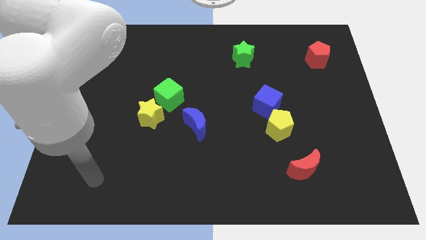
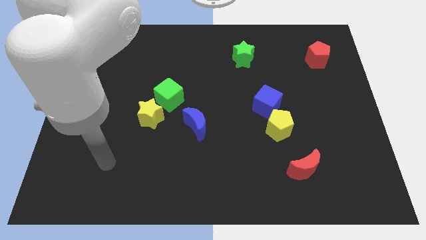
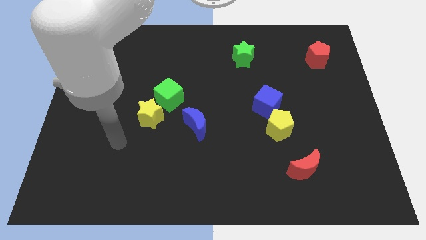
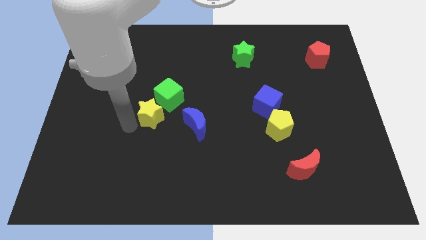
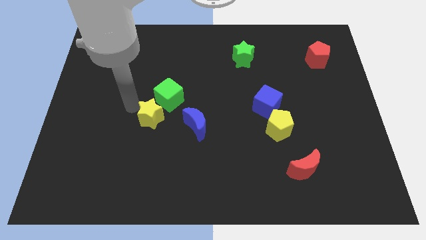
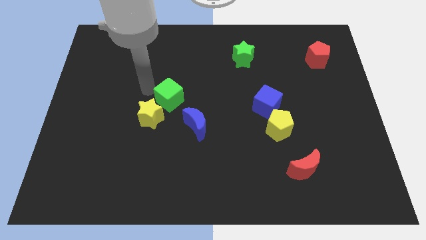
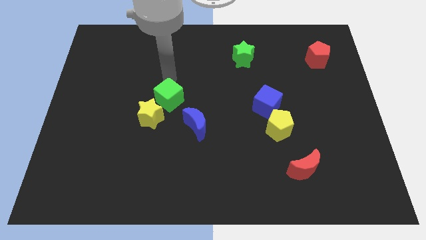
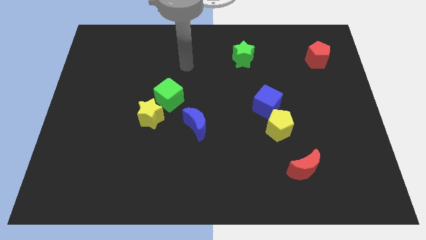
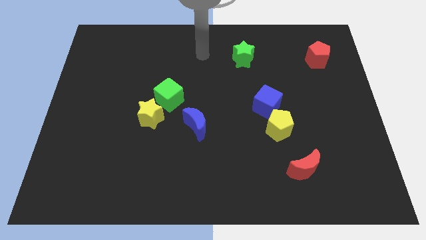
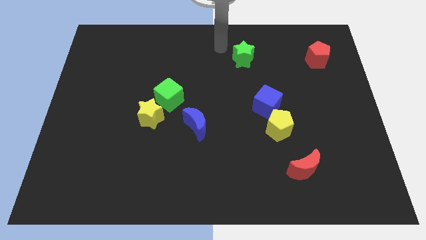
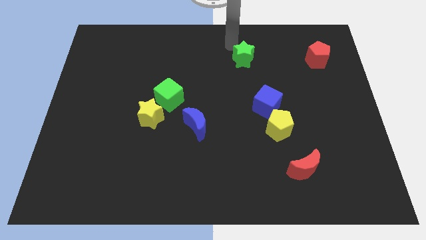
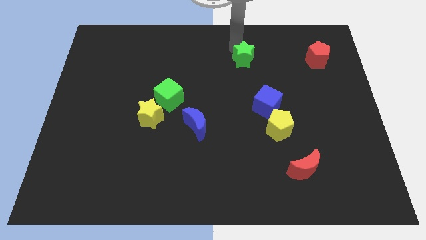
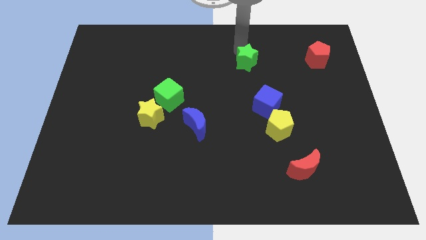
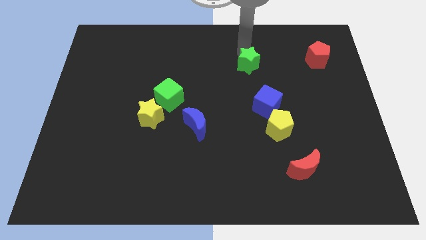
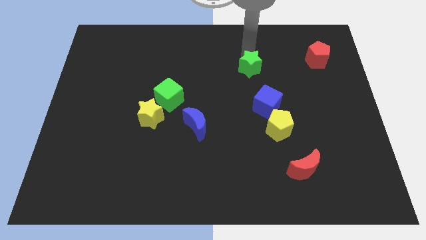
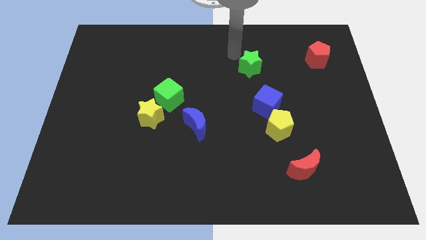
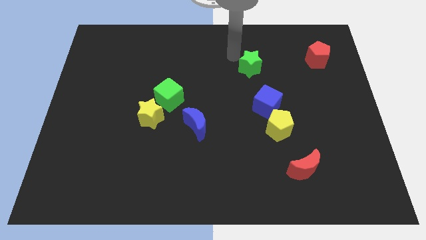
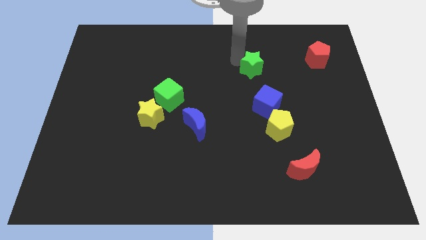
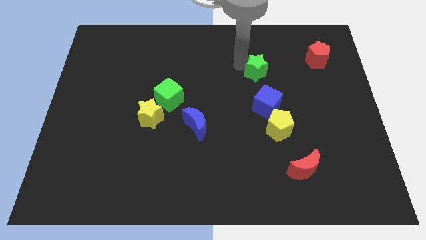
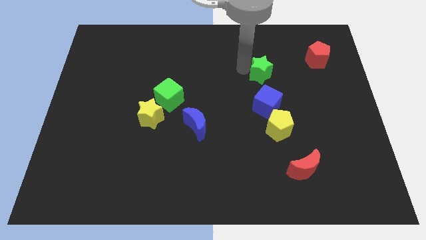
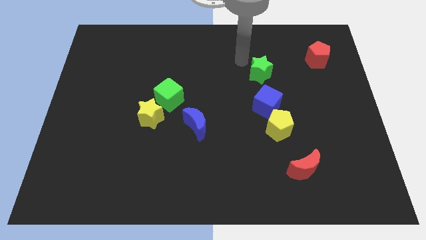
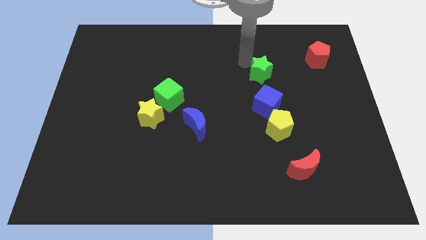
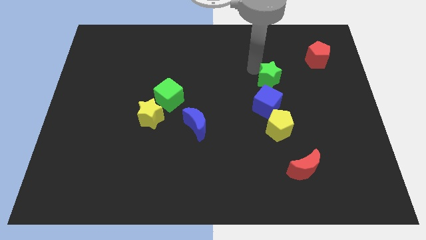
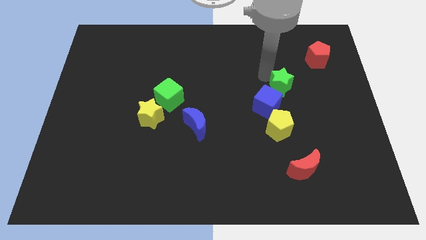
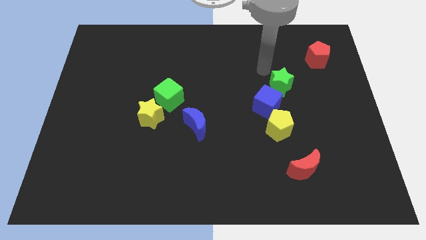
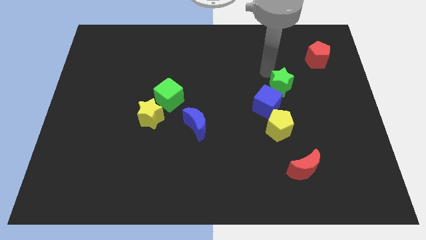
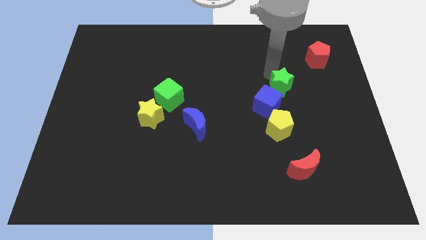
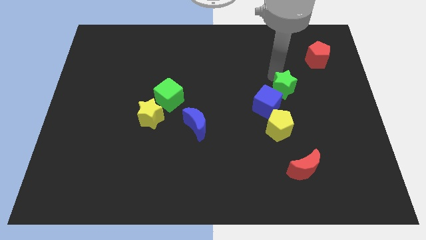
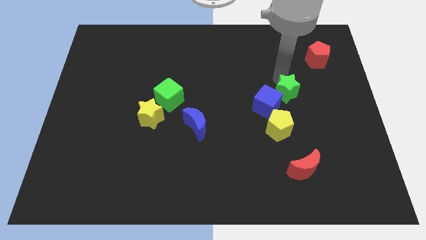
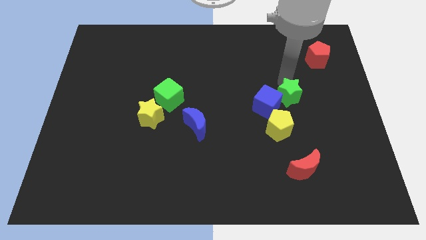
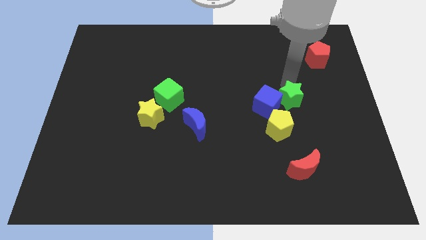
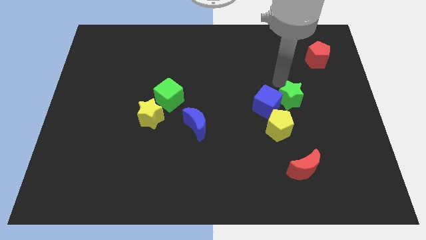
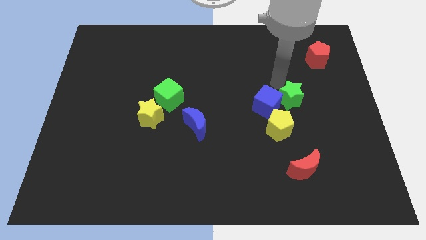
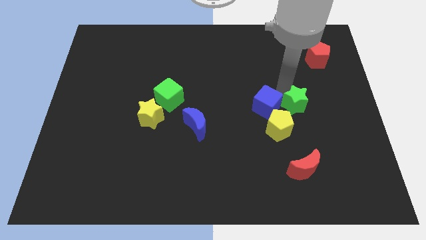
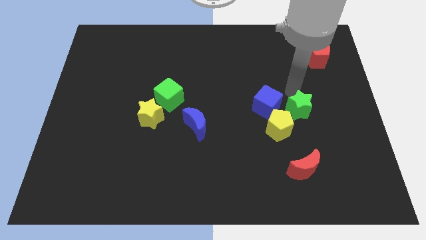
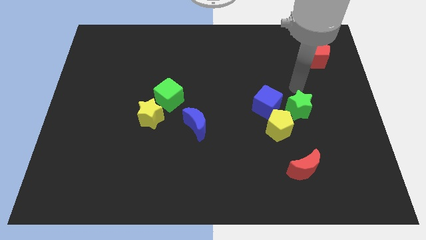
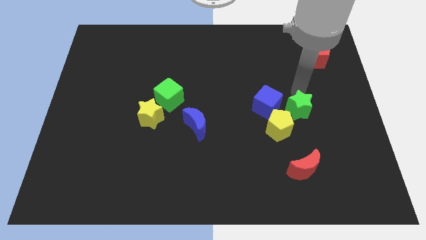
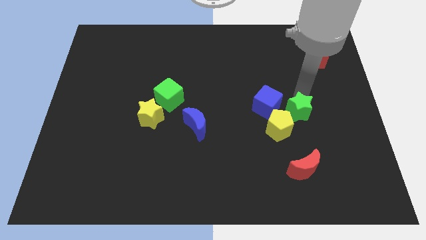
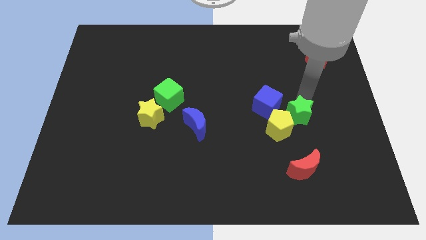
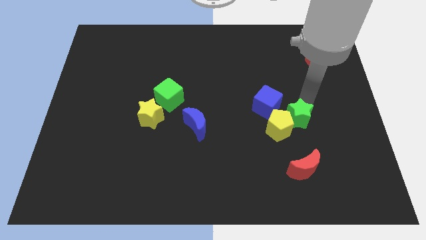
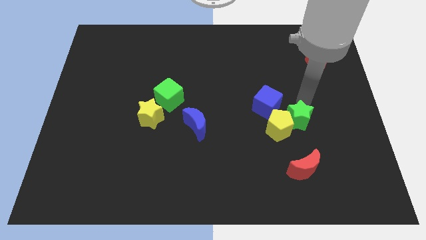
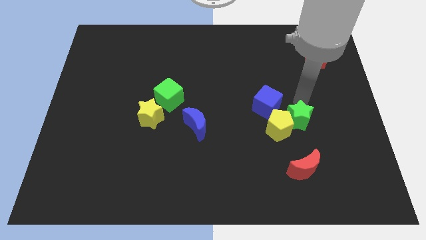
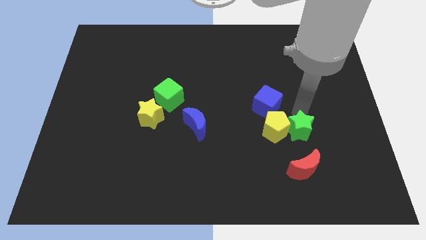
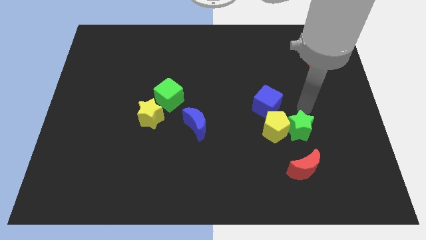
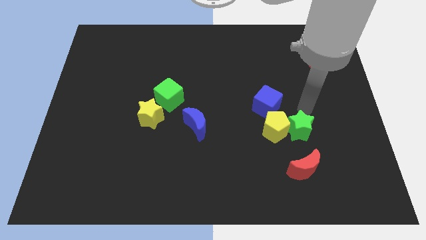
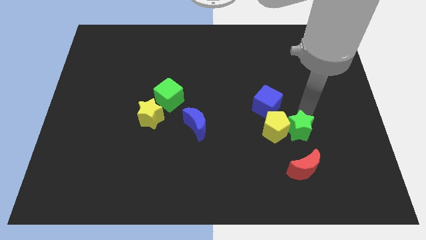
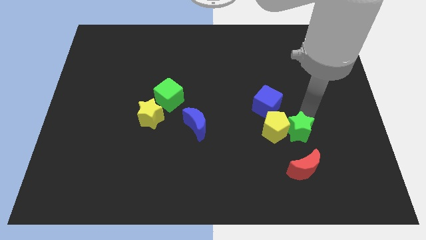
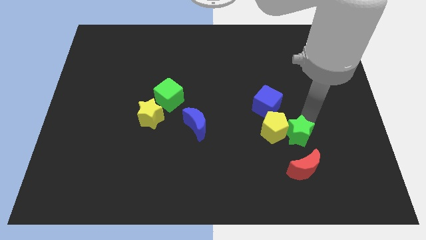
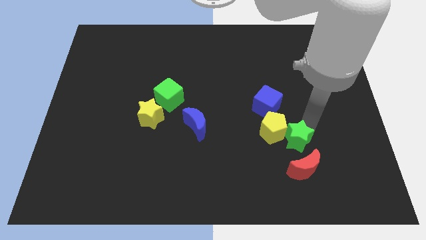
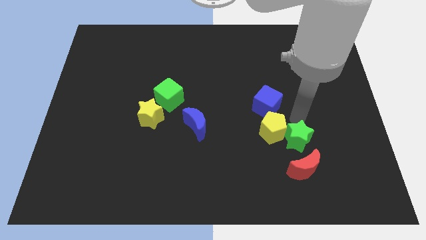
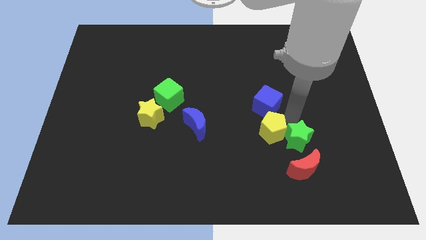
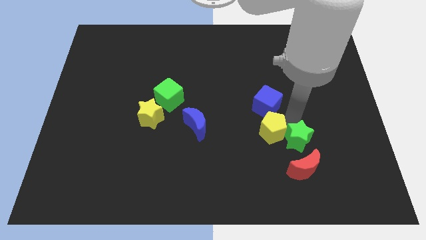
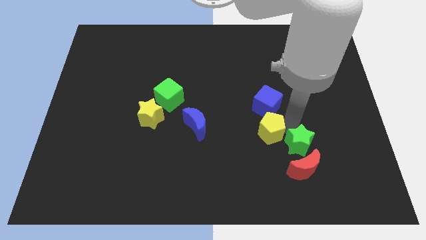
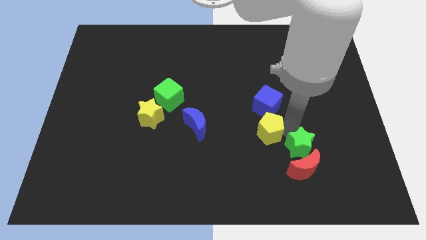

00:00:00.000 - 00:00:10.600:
put the green star to the red moon

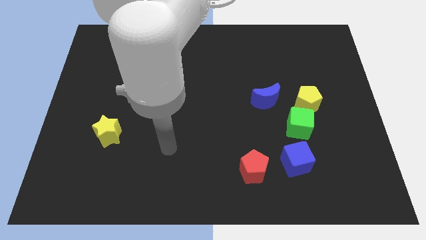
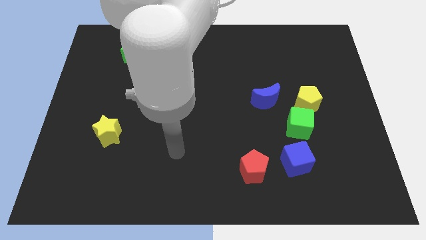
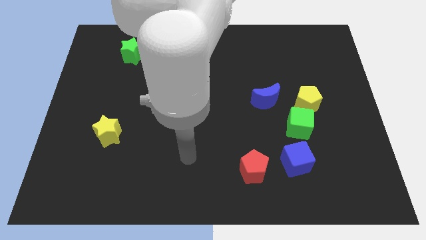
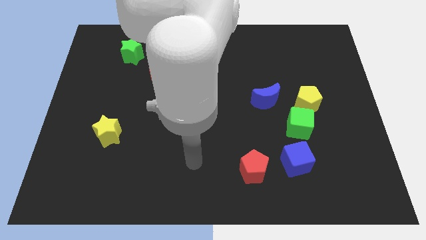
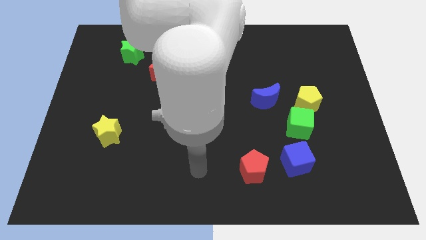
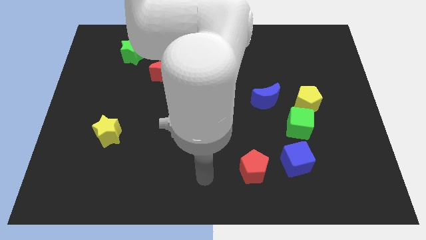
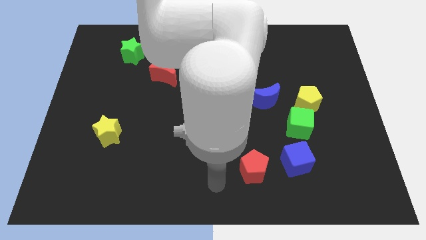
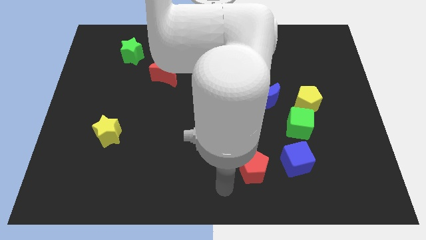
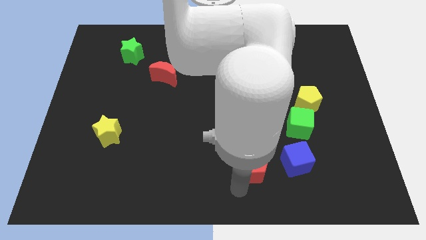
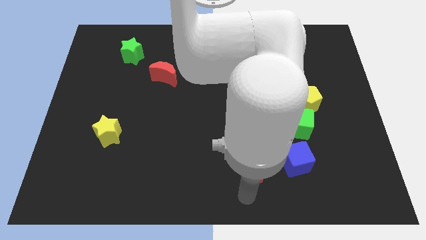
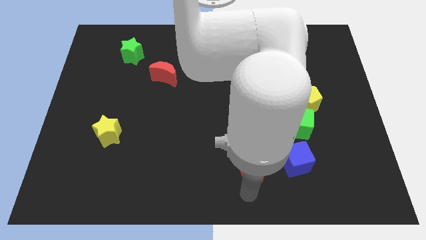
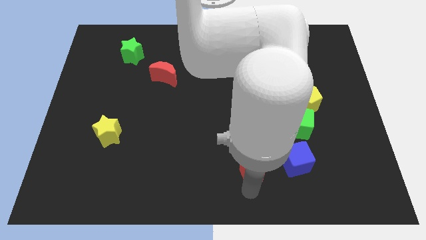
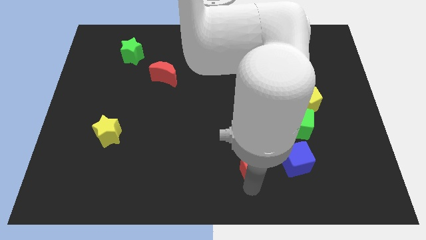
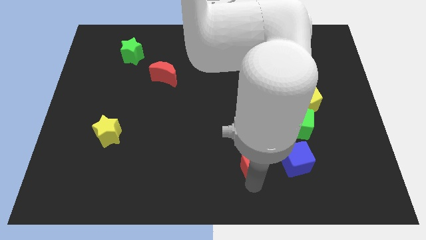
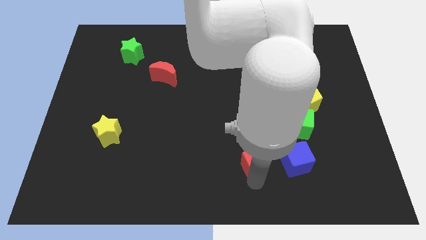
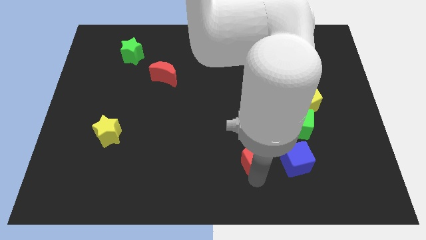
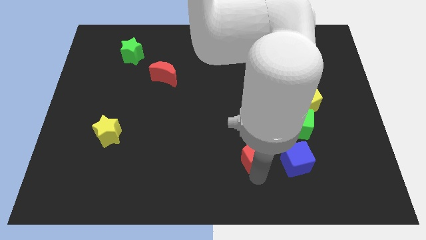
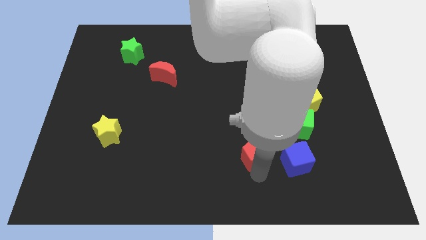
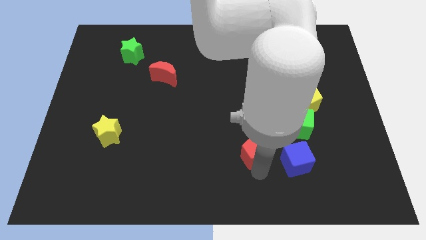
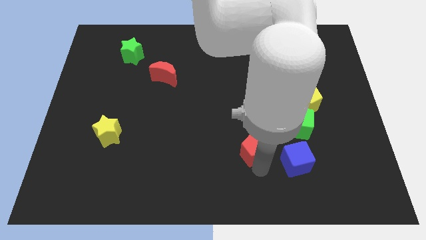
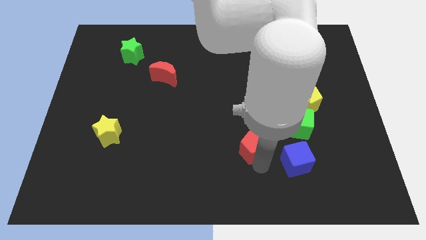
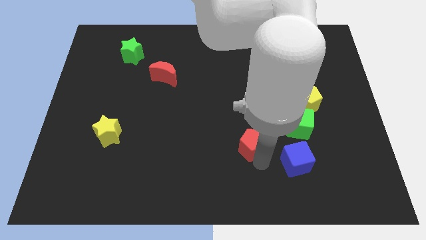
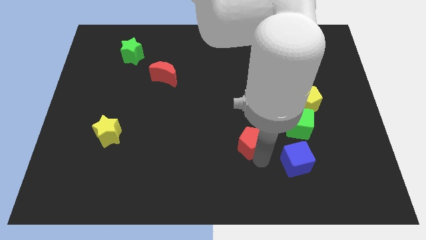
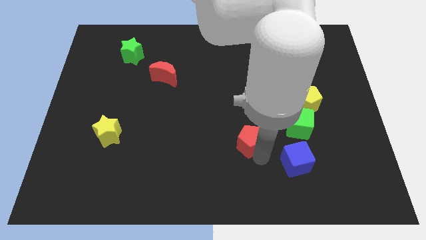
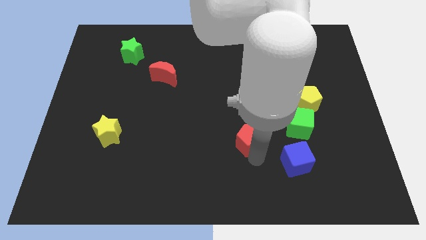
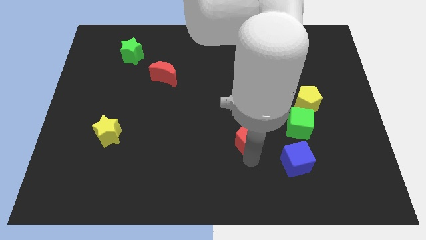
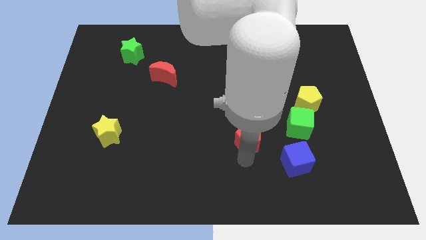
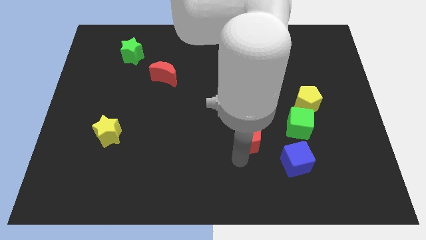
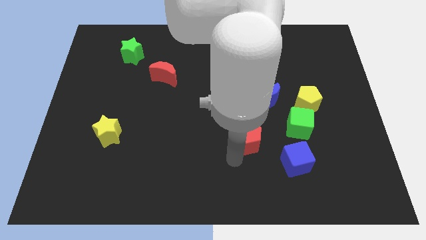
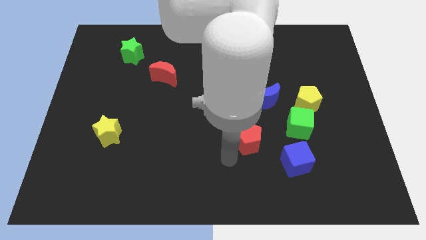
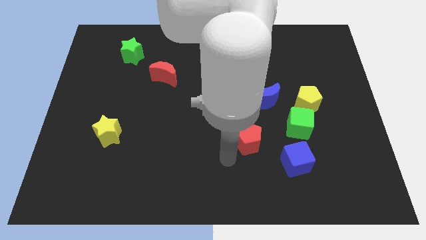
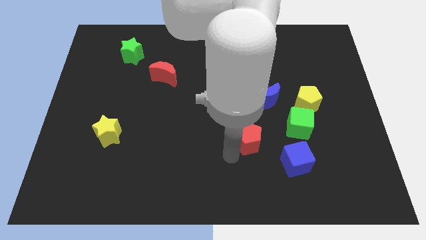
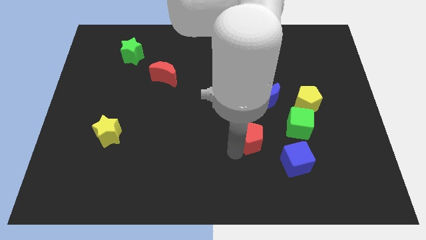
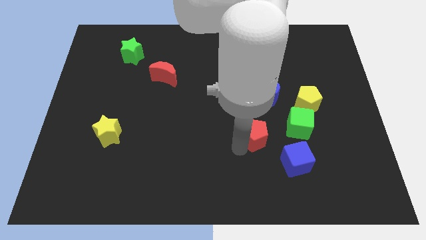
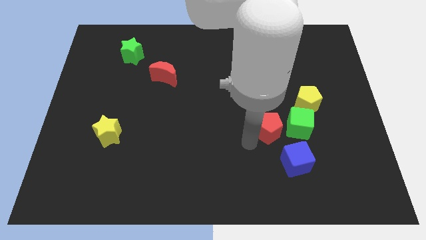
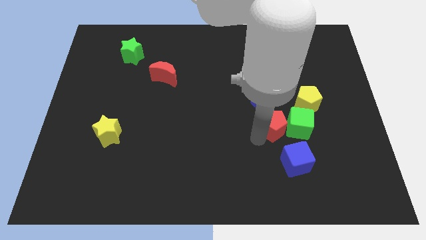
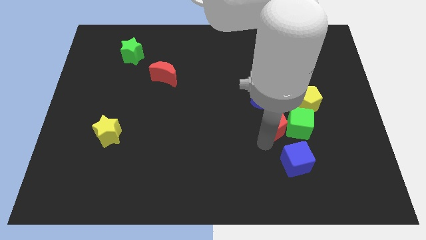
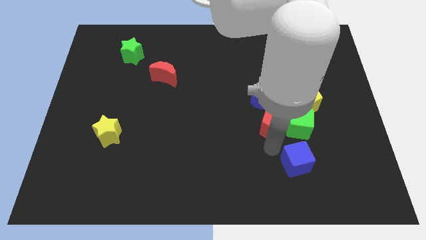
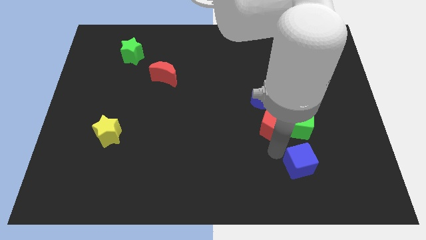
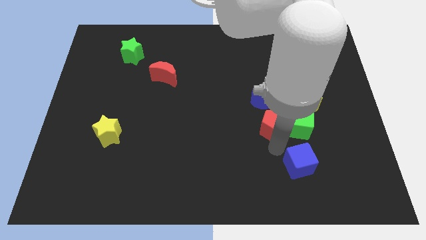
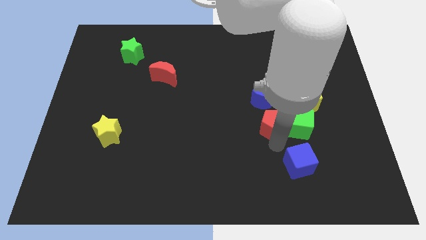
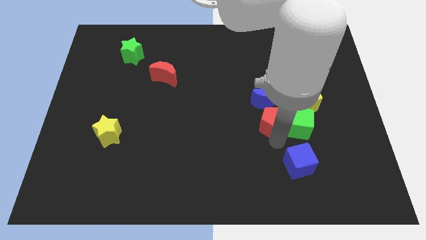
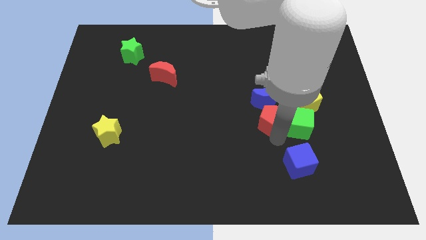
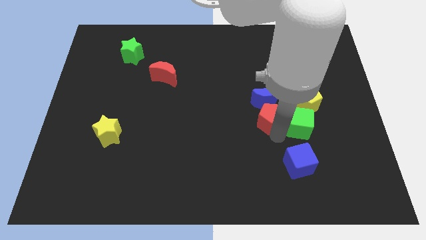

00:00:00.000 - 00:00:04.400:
put the red pentagon to the blue moon
